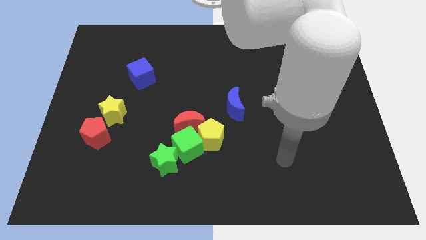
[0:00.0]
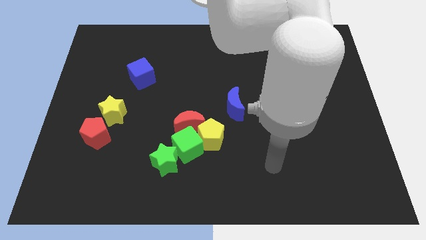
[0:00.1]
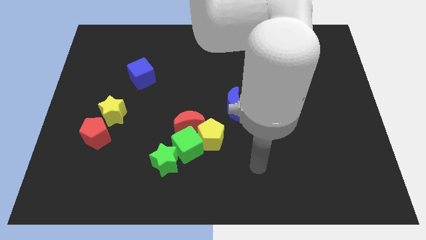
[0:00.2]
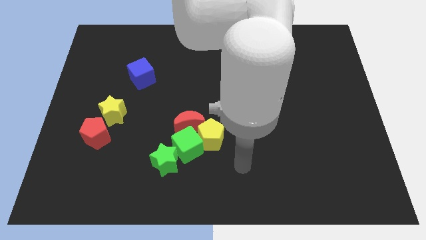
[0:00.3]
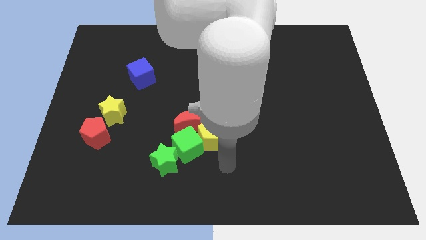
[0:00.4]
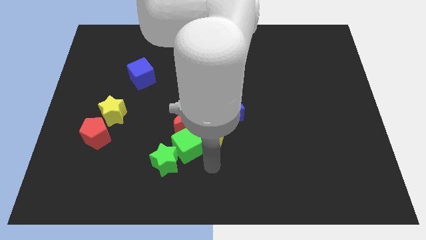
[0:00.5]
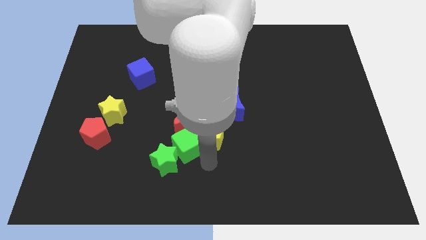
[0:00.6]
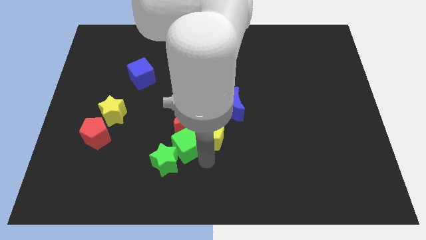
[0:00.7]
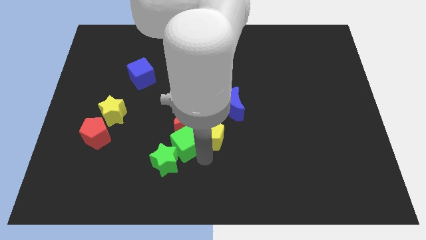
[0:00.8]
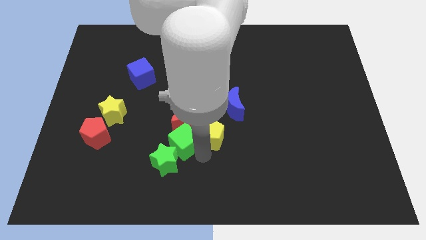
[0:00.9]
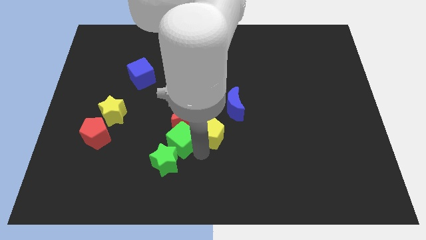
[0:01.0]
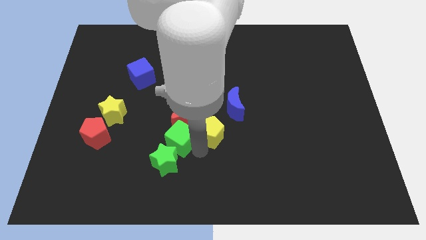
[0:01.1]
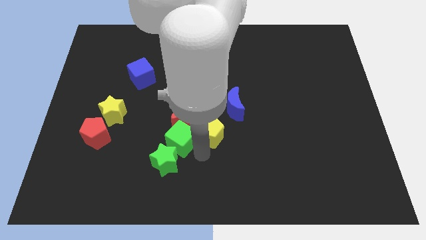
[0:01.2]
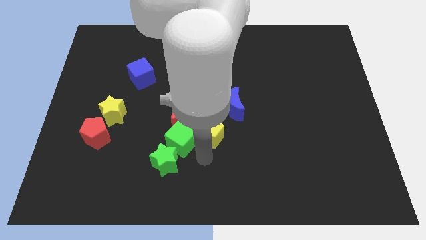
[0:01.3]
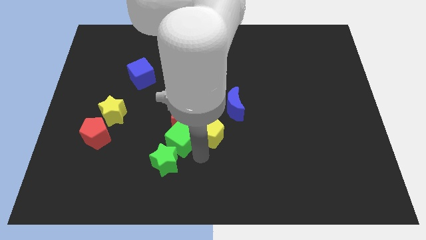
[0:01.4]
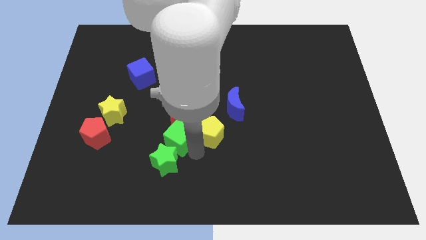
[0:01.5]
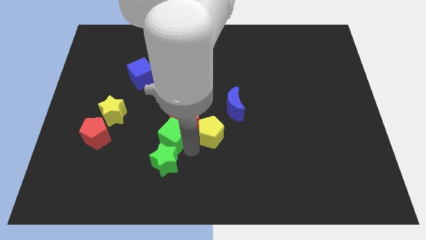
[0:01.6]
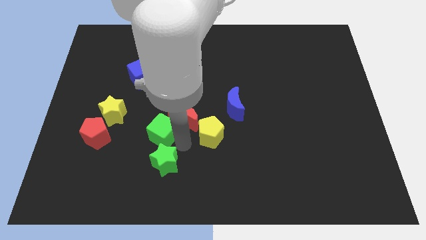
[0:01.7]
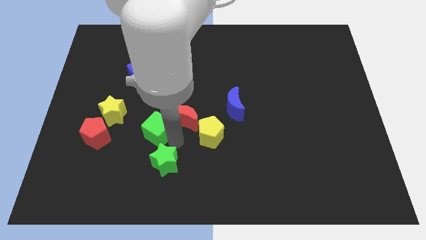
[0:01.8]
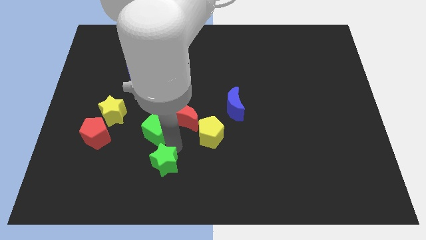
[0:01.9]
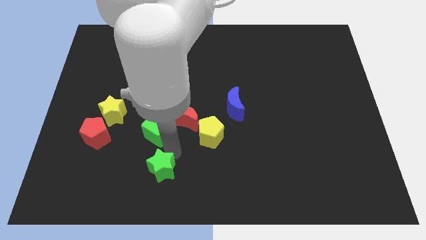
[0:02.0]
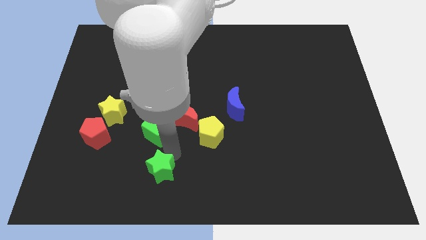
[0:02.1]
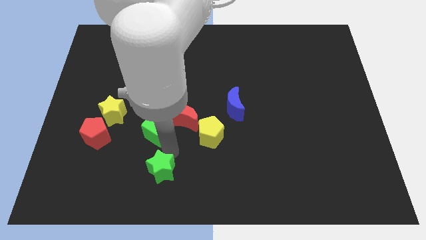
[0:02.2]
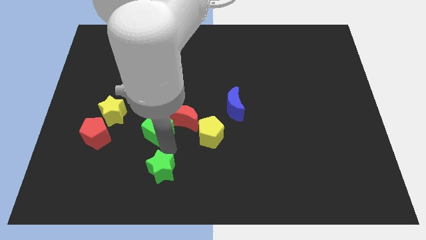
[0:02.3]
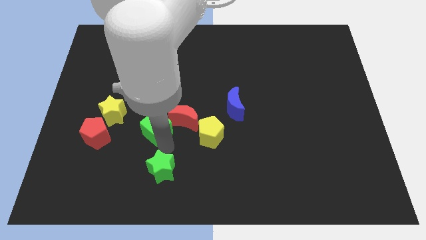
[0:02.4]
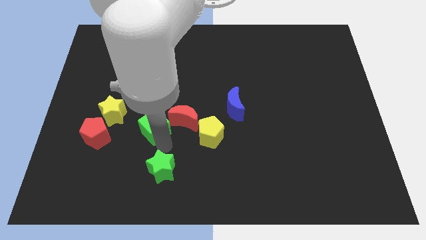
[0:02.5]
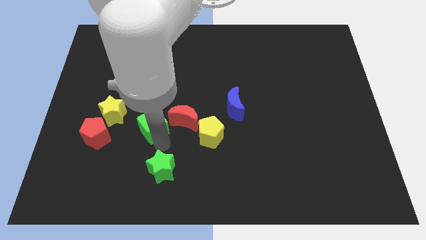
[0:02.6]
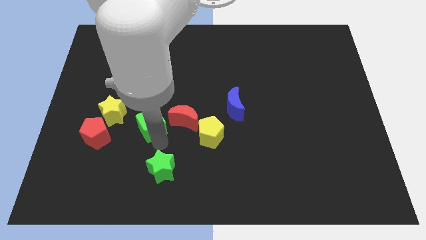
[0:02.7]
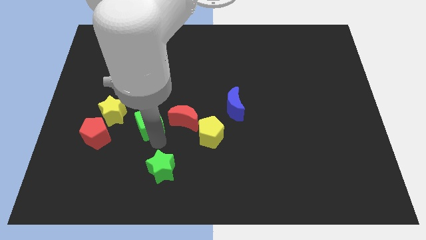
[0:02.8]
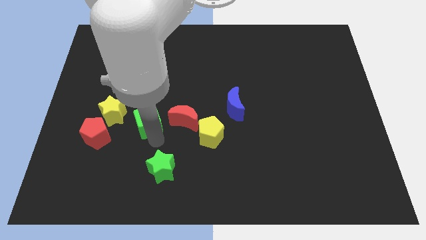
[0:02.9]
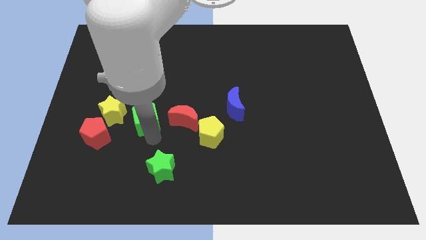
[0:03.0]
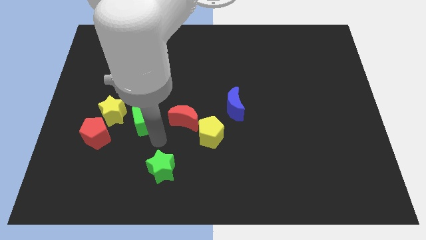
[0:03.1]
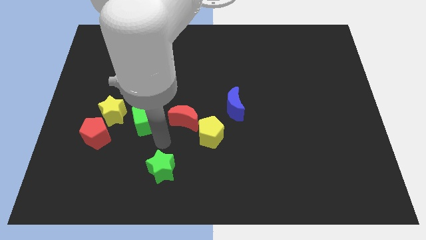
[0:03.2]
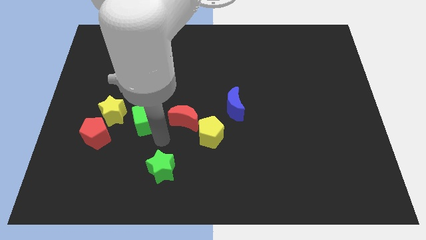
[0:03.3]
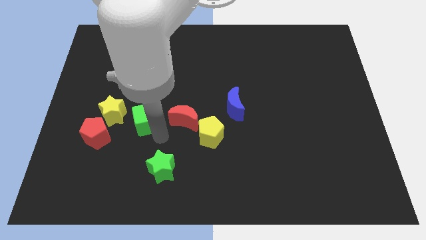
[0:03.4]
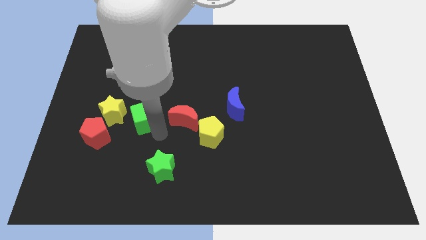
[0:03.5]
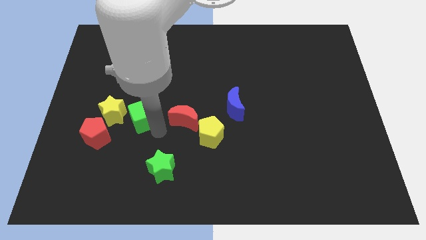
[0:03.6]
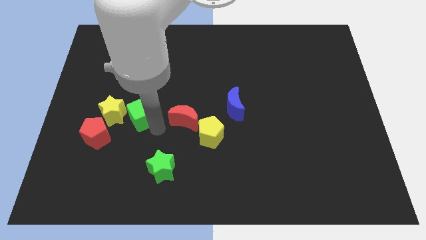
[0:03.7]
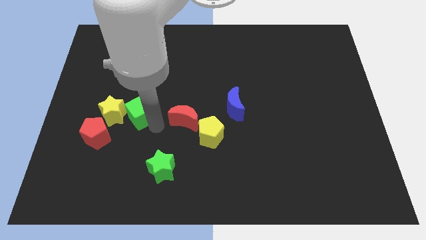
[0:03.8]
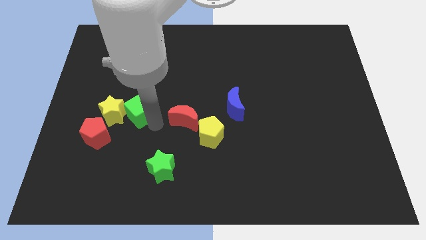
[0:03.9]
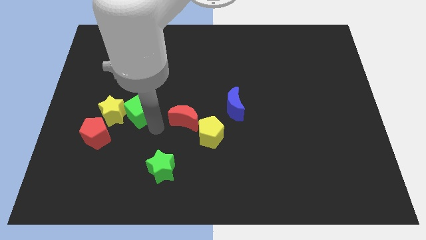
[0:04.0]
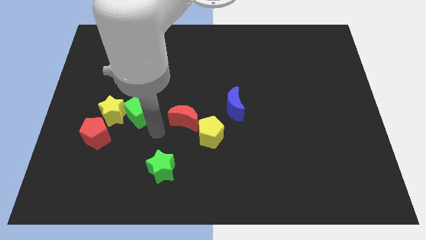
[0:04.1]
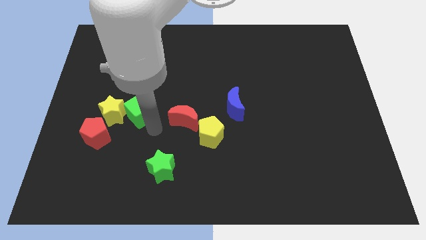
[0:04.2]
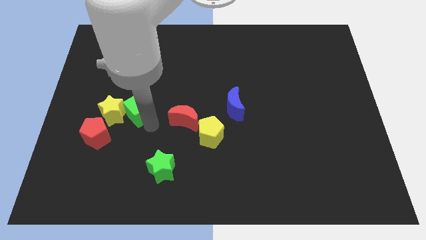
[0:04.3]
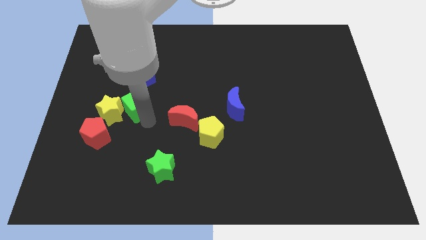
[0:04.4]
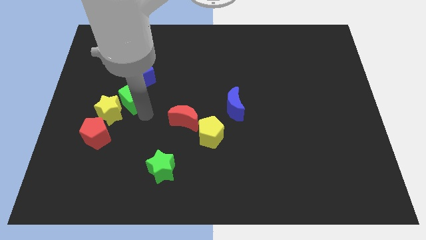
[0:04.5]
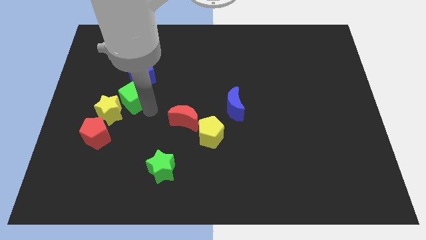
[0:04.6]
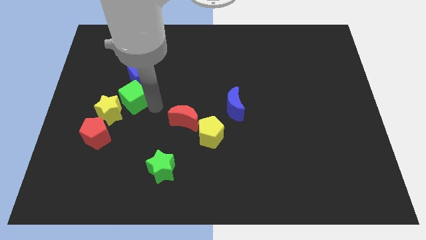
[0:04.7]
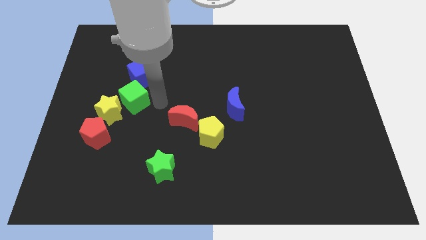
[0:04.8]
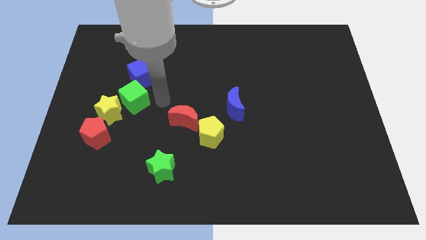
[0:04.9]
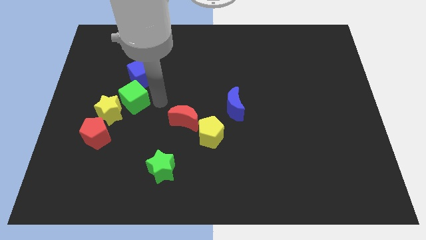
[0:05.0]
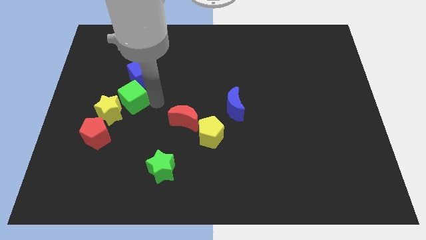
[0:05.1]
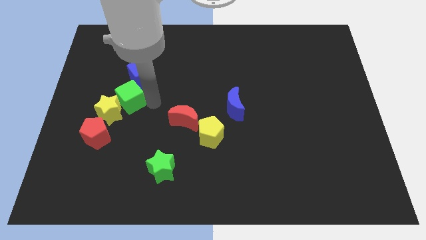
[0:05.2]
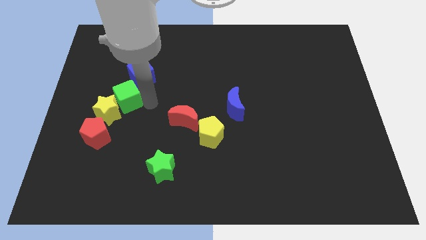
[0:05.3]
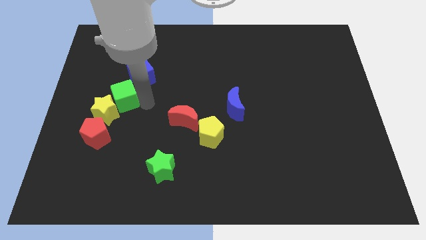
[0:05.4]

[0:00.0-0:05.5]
move the green cube to the top side of the red pentagon

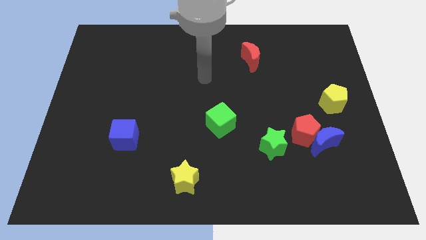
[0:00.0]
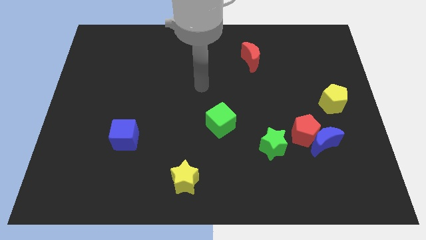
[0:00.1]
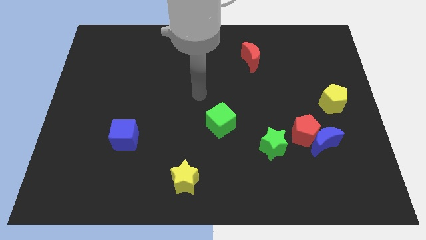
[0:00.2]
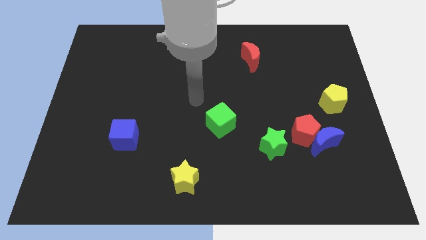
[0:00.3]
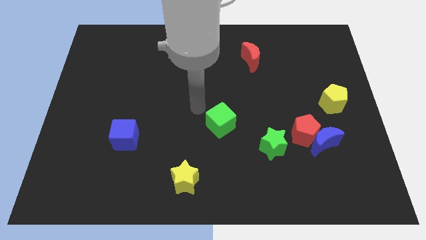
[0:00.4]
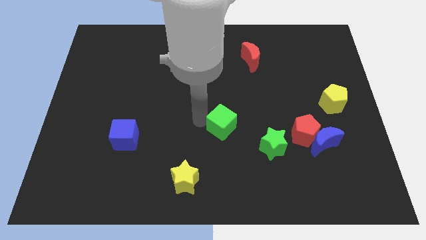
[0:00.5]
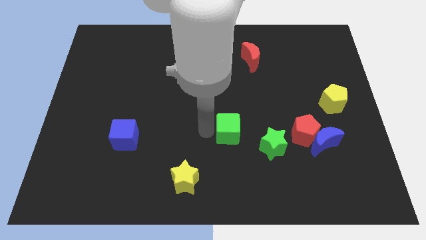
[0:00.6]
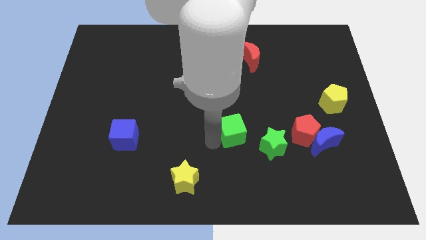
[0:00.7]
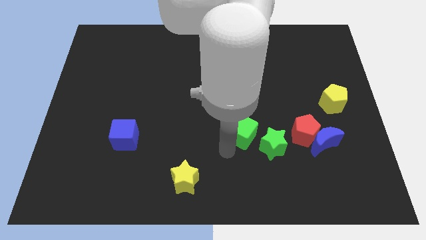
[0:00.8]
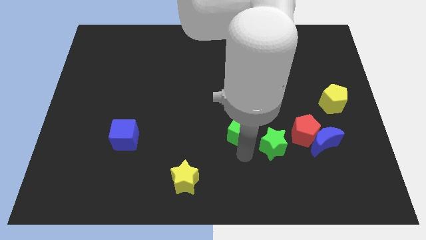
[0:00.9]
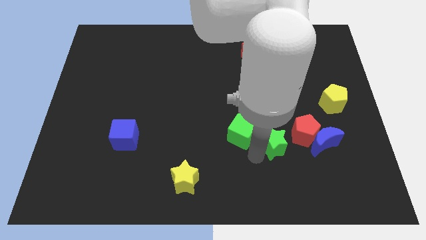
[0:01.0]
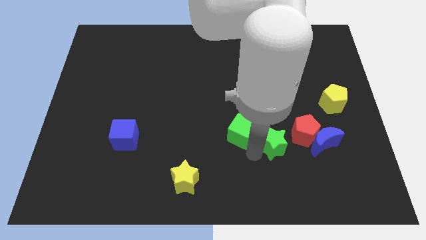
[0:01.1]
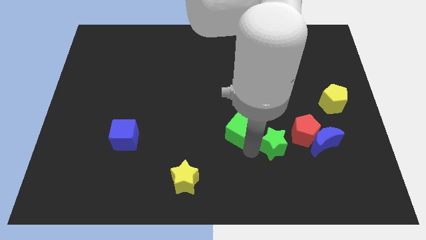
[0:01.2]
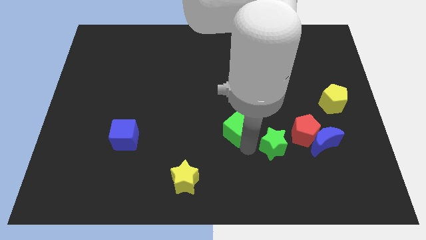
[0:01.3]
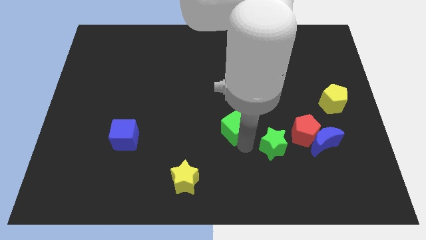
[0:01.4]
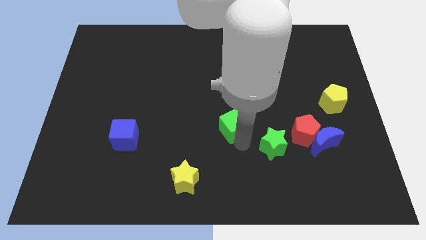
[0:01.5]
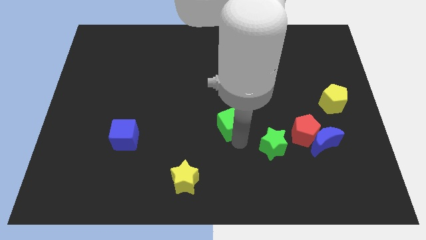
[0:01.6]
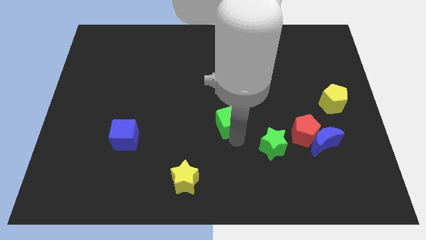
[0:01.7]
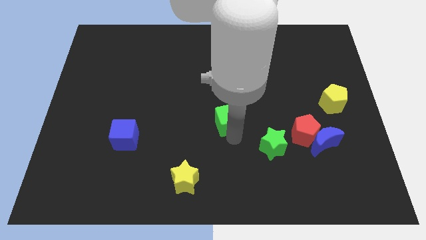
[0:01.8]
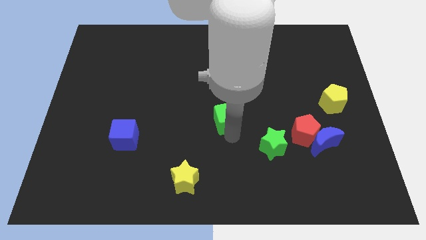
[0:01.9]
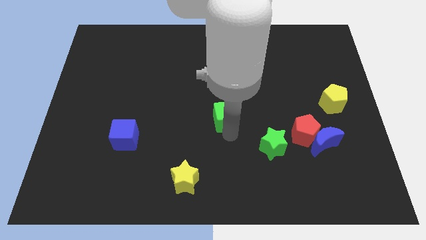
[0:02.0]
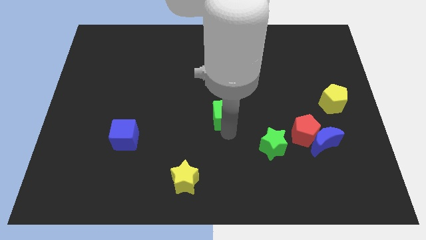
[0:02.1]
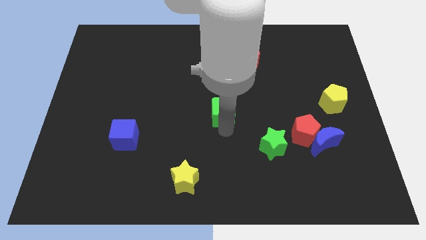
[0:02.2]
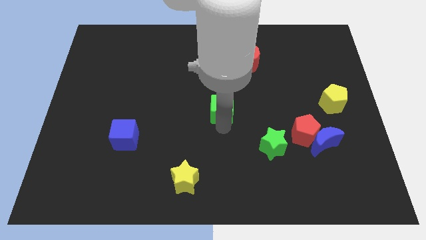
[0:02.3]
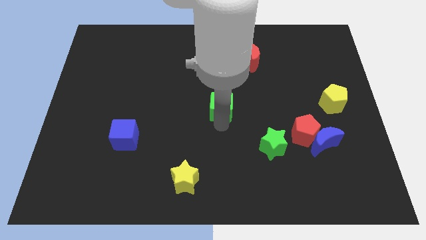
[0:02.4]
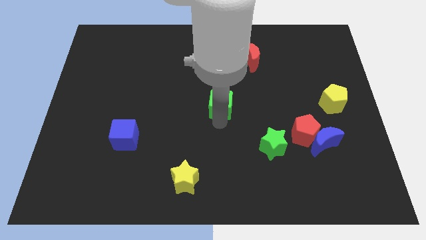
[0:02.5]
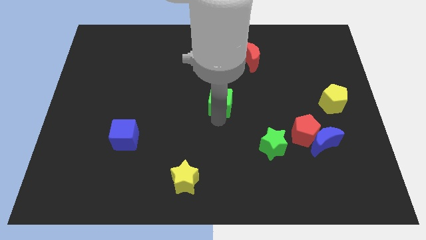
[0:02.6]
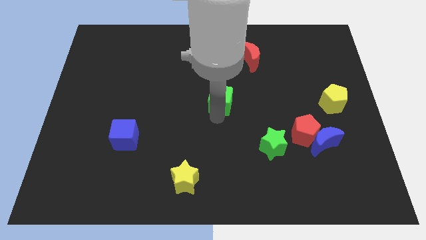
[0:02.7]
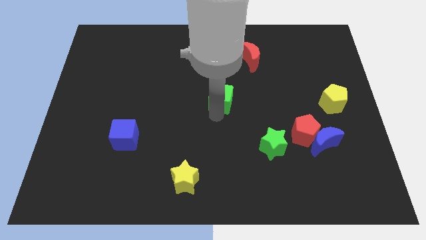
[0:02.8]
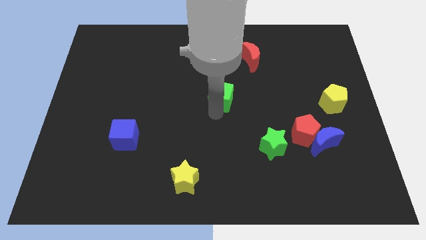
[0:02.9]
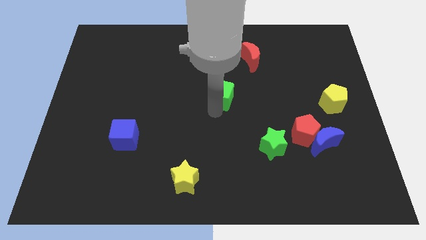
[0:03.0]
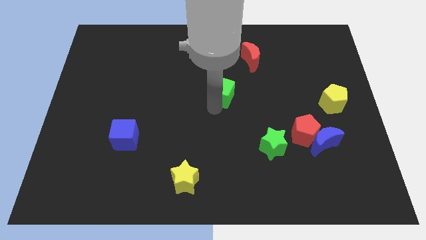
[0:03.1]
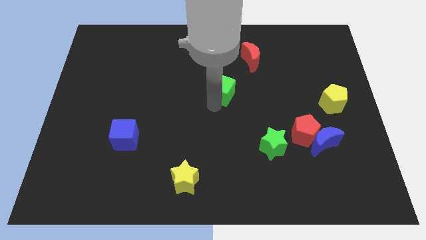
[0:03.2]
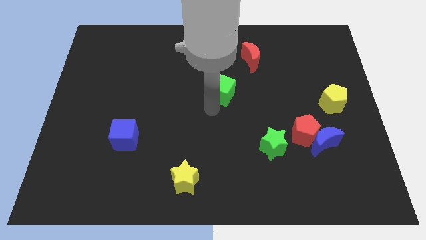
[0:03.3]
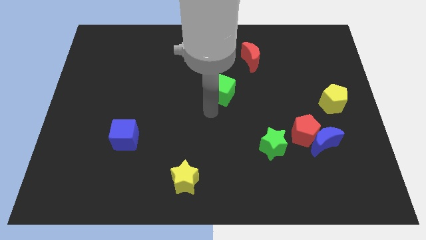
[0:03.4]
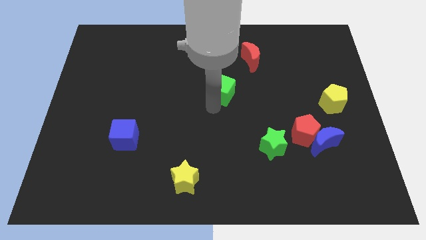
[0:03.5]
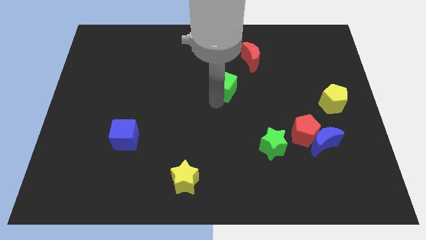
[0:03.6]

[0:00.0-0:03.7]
move the green cube to the bottom left of the red moon
